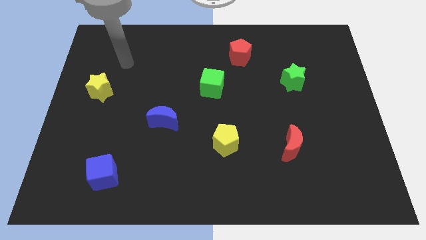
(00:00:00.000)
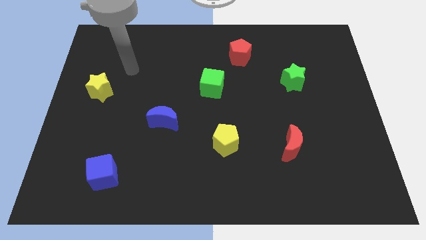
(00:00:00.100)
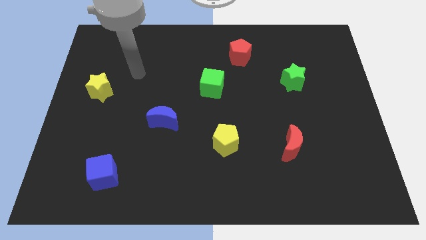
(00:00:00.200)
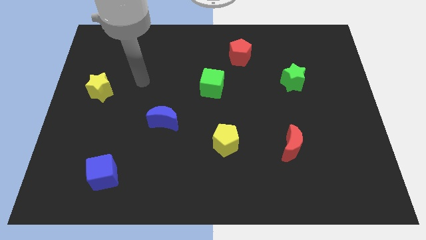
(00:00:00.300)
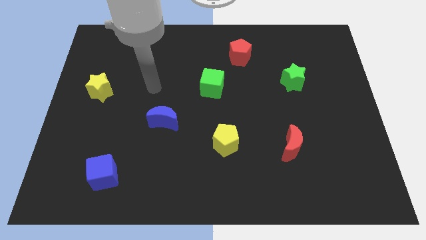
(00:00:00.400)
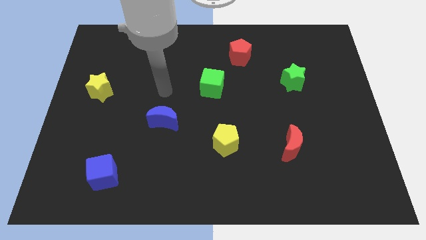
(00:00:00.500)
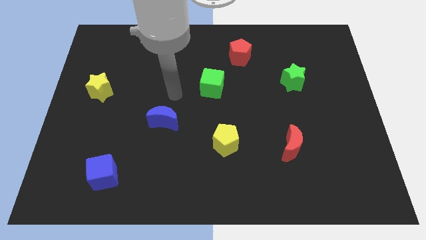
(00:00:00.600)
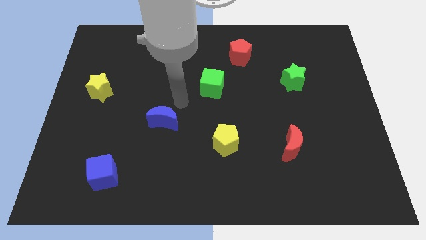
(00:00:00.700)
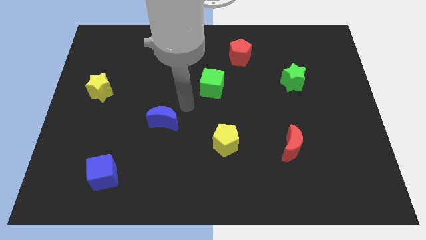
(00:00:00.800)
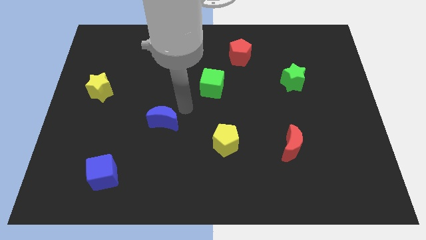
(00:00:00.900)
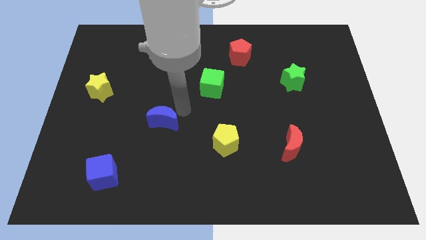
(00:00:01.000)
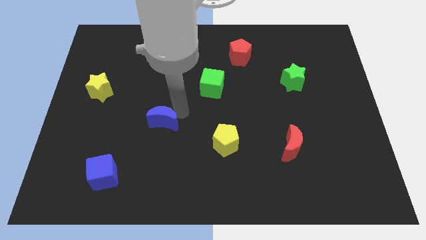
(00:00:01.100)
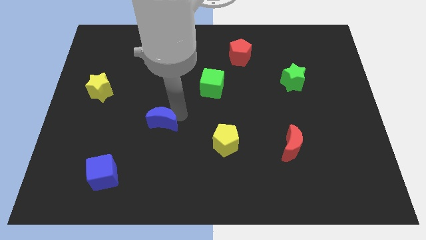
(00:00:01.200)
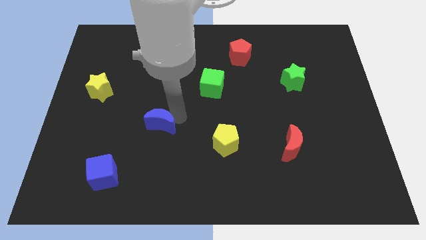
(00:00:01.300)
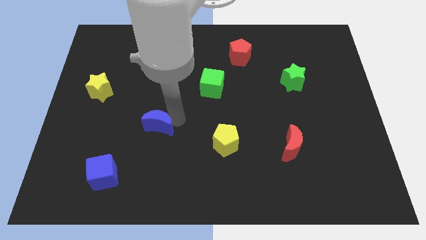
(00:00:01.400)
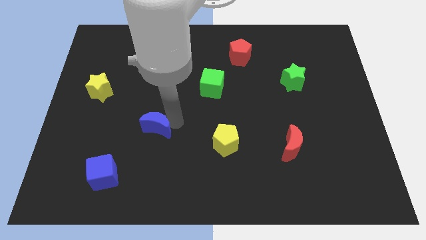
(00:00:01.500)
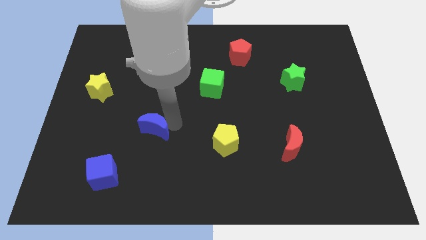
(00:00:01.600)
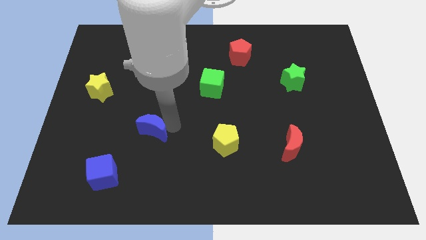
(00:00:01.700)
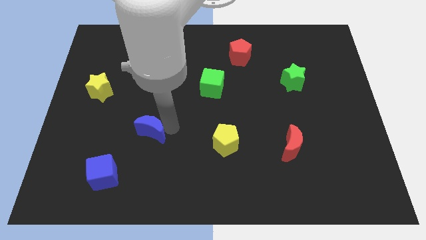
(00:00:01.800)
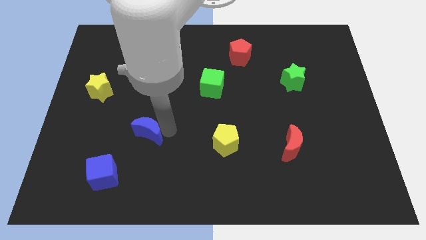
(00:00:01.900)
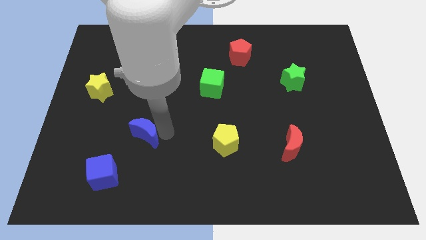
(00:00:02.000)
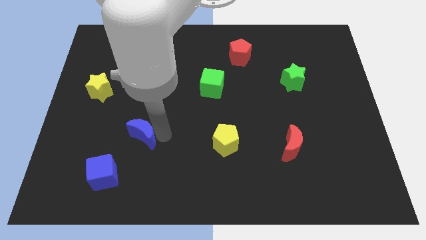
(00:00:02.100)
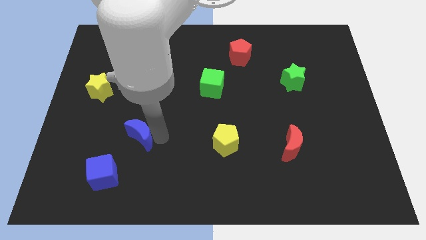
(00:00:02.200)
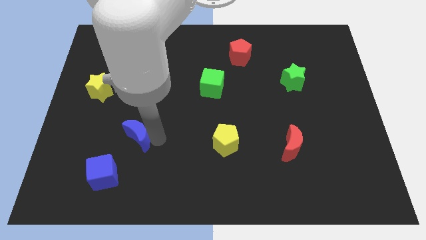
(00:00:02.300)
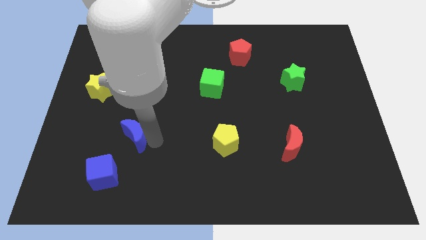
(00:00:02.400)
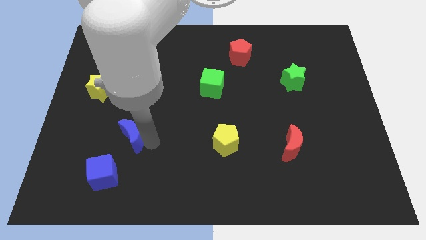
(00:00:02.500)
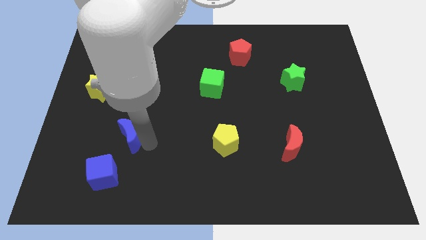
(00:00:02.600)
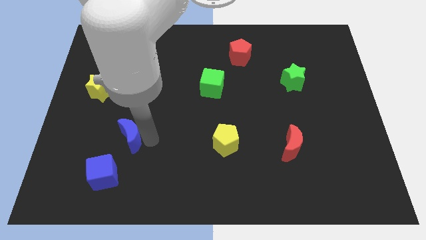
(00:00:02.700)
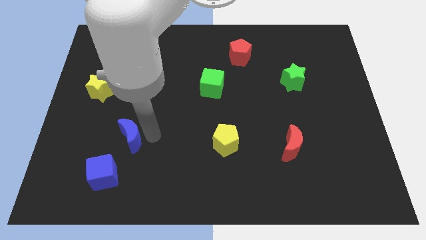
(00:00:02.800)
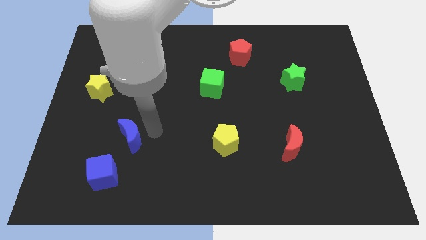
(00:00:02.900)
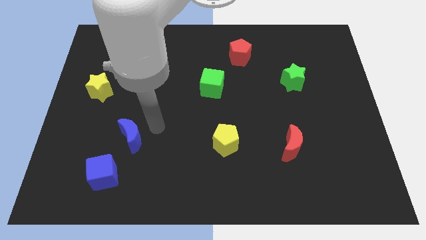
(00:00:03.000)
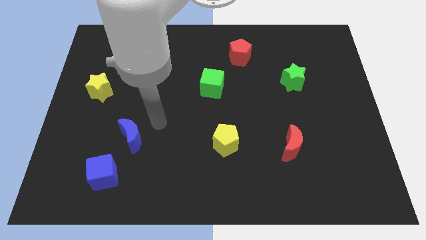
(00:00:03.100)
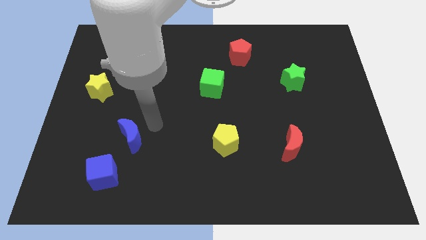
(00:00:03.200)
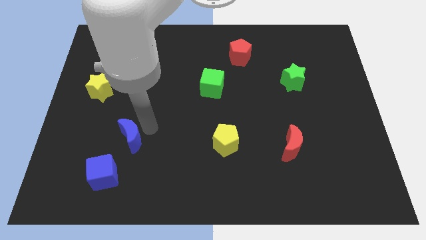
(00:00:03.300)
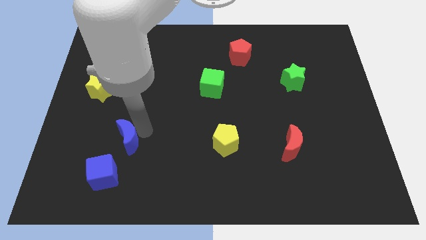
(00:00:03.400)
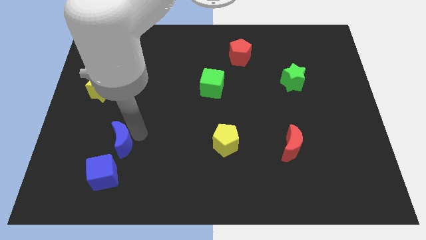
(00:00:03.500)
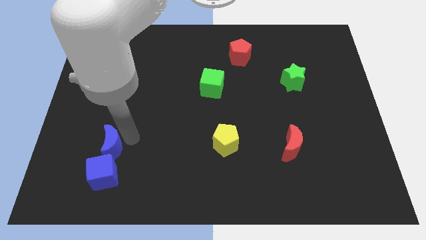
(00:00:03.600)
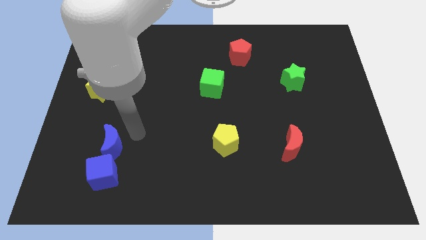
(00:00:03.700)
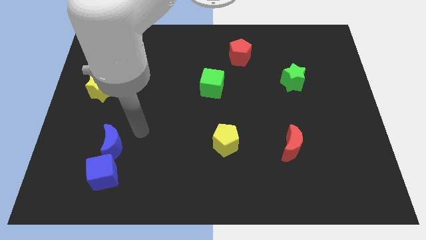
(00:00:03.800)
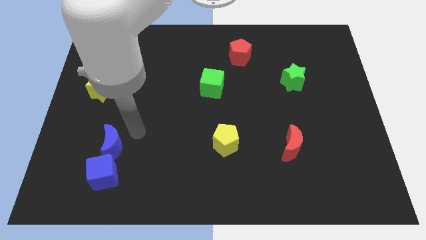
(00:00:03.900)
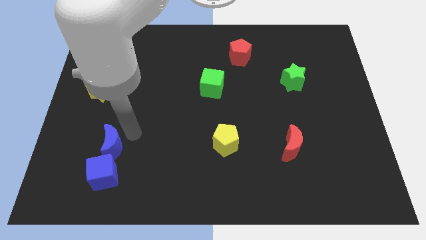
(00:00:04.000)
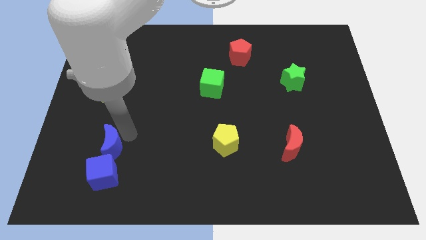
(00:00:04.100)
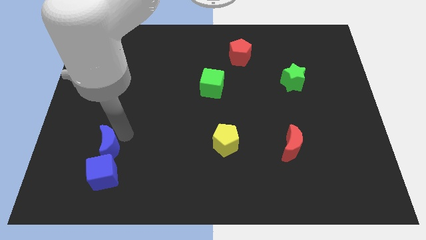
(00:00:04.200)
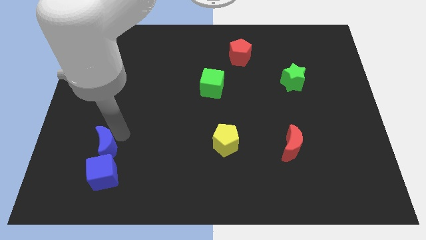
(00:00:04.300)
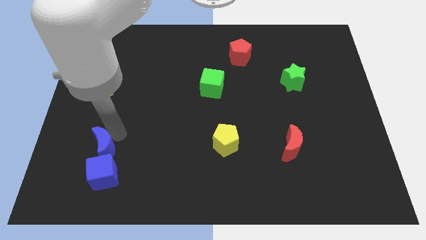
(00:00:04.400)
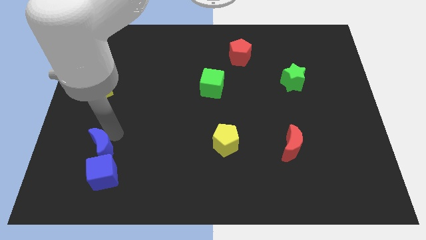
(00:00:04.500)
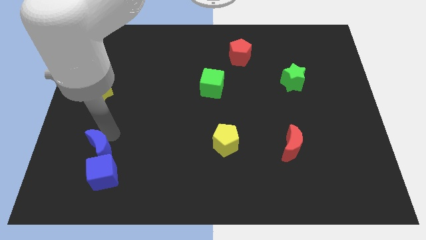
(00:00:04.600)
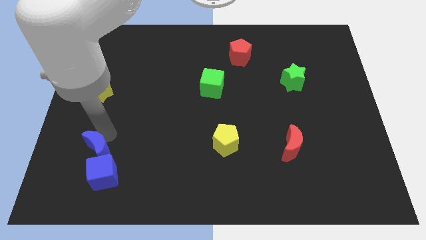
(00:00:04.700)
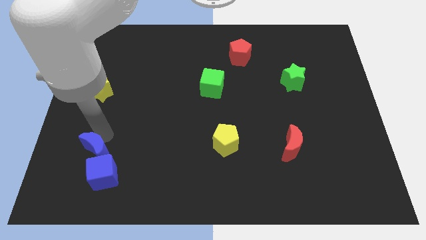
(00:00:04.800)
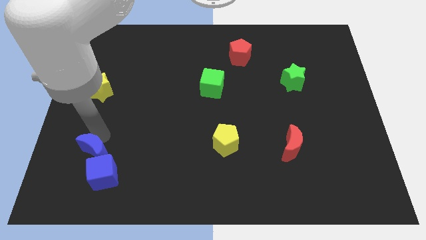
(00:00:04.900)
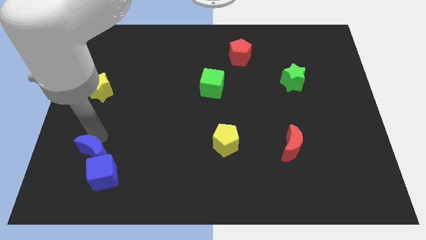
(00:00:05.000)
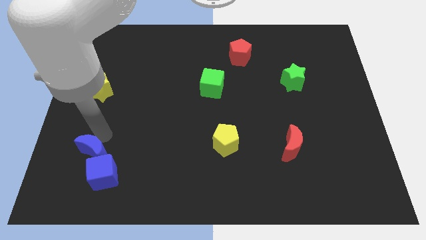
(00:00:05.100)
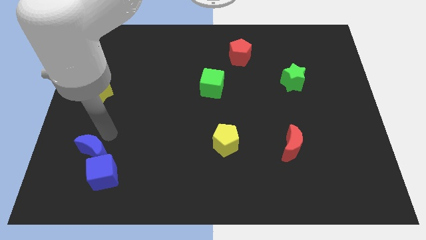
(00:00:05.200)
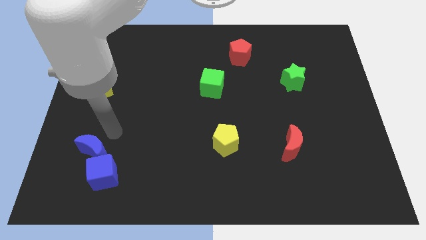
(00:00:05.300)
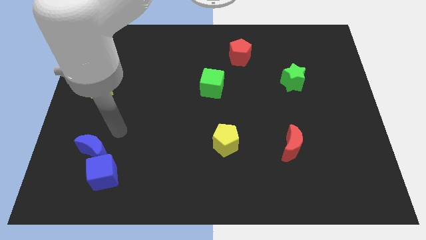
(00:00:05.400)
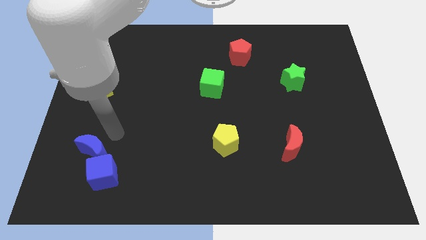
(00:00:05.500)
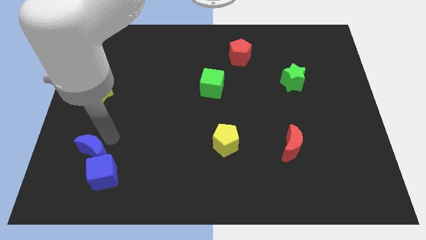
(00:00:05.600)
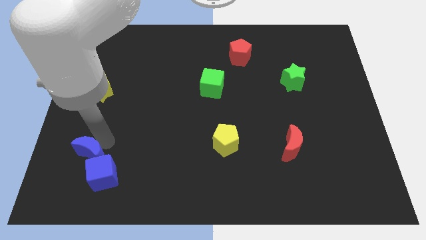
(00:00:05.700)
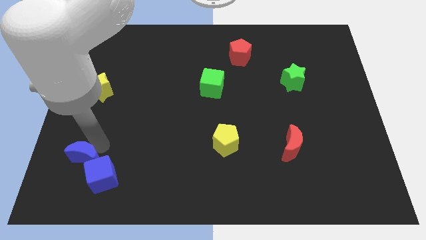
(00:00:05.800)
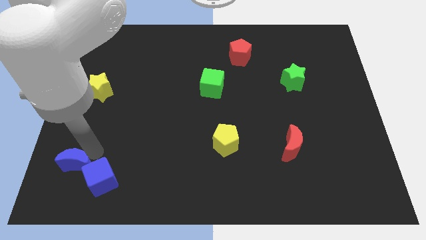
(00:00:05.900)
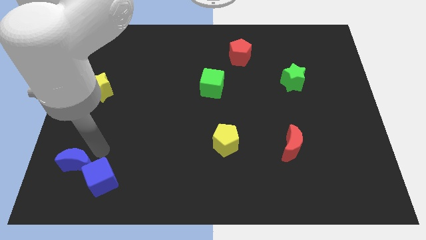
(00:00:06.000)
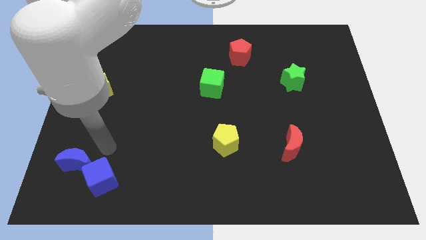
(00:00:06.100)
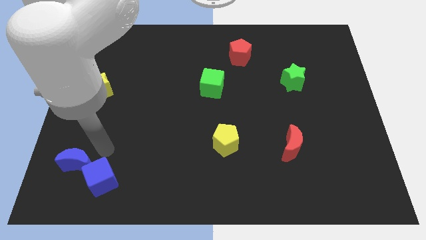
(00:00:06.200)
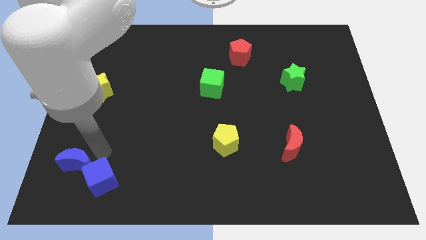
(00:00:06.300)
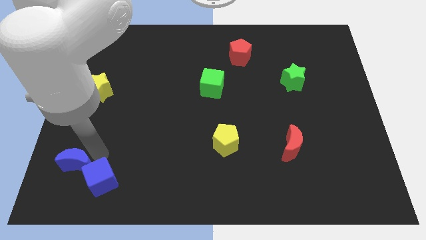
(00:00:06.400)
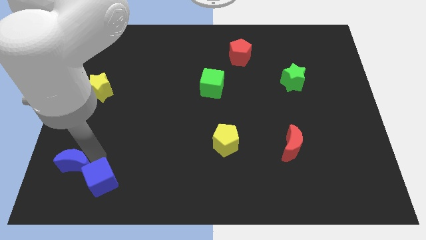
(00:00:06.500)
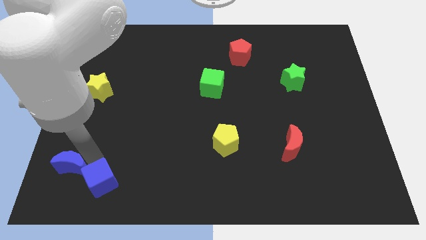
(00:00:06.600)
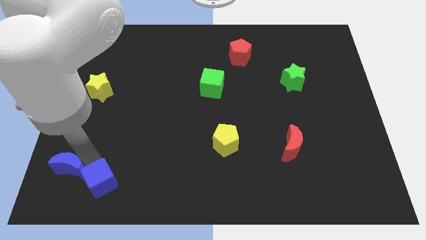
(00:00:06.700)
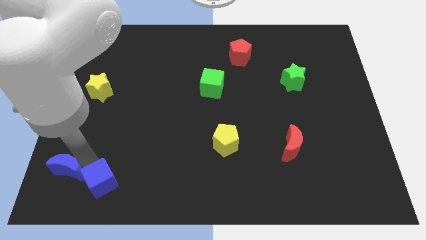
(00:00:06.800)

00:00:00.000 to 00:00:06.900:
put the blue moon to the bottom left of the board

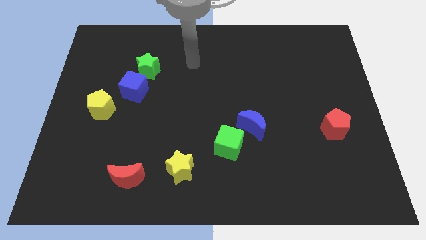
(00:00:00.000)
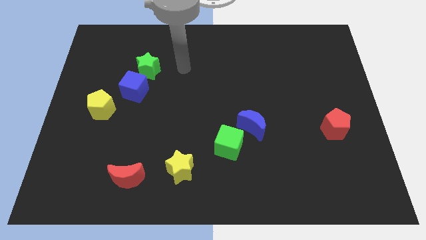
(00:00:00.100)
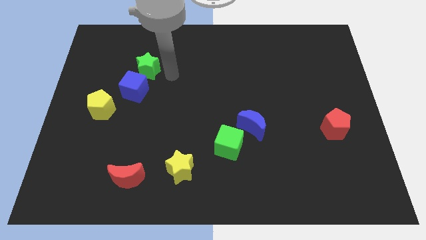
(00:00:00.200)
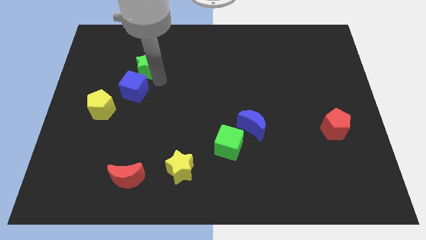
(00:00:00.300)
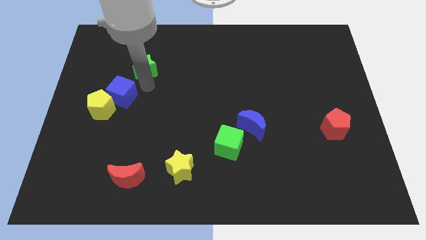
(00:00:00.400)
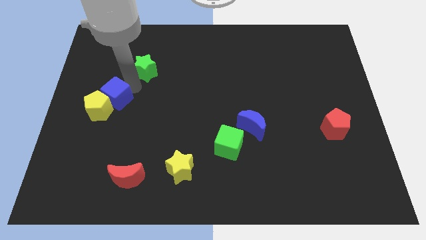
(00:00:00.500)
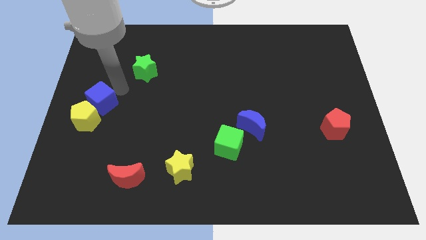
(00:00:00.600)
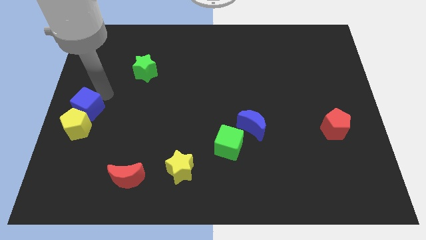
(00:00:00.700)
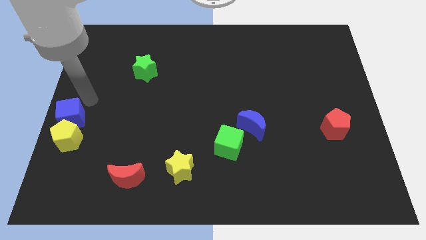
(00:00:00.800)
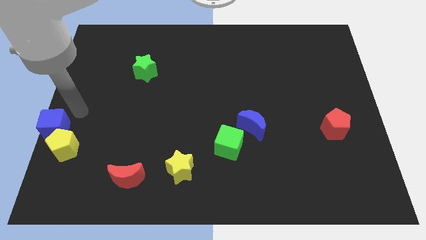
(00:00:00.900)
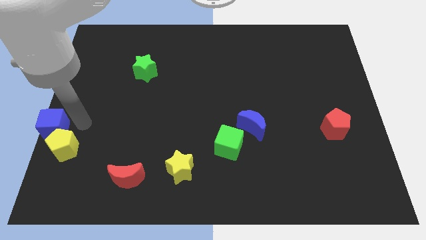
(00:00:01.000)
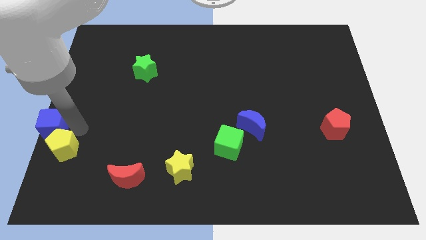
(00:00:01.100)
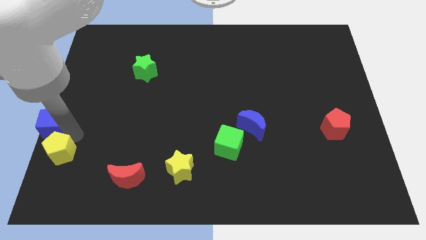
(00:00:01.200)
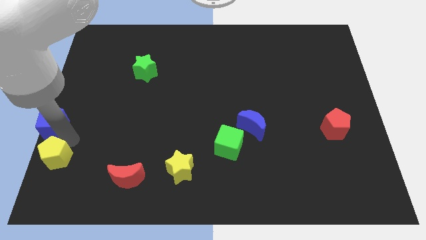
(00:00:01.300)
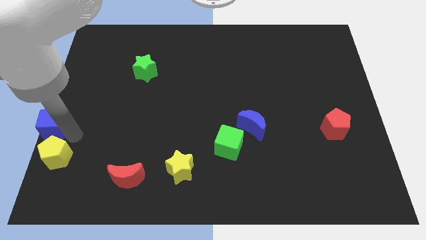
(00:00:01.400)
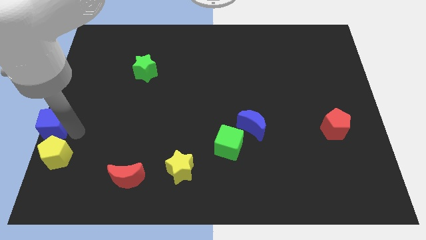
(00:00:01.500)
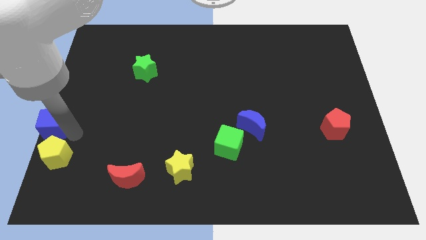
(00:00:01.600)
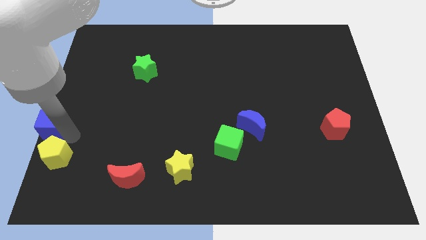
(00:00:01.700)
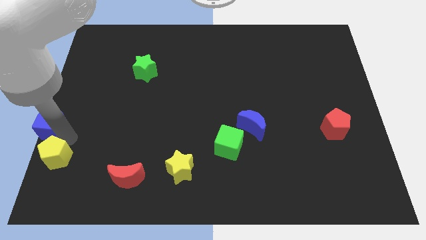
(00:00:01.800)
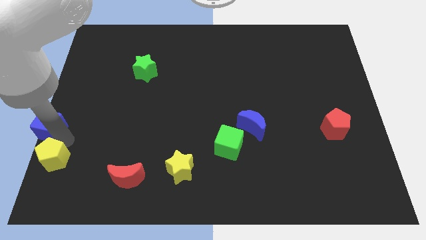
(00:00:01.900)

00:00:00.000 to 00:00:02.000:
move the yellow pentagon to the bottom left
